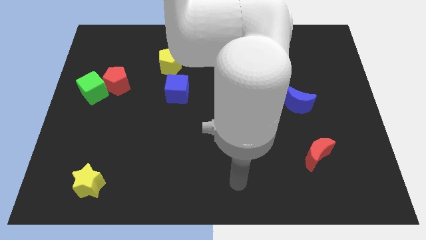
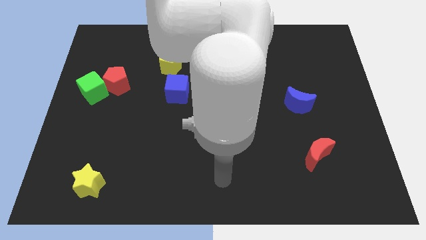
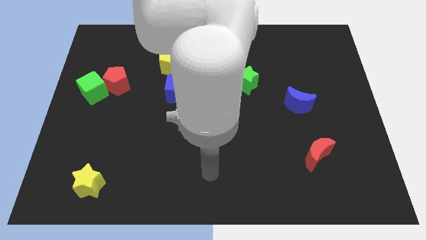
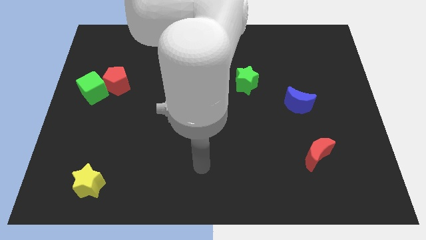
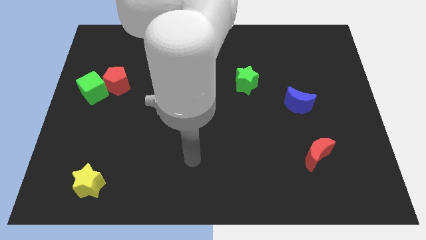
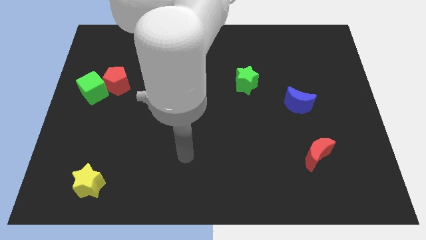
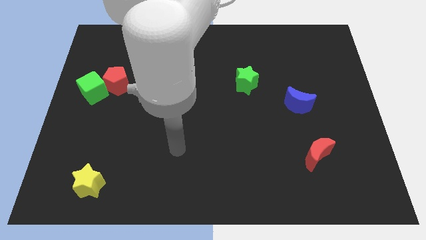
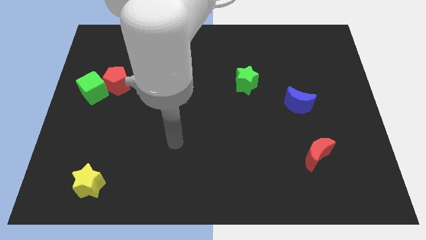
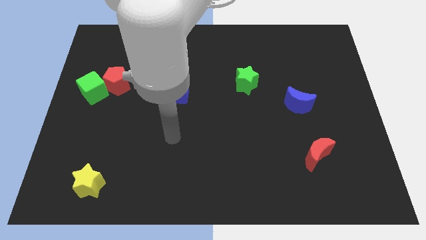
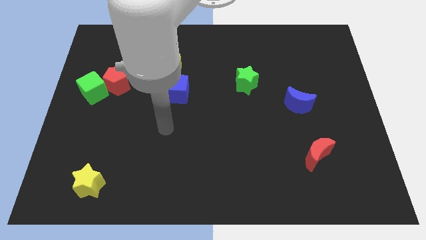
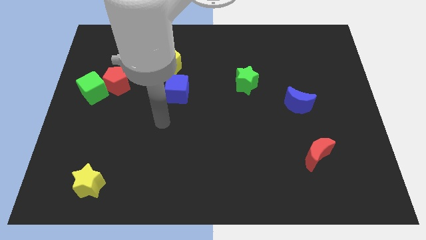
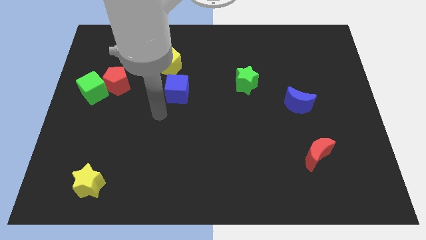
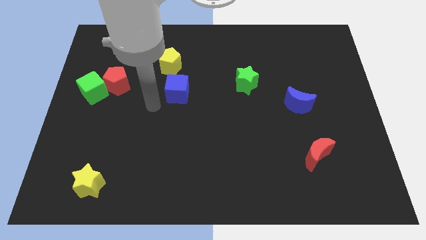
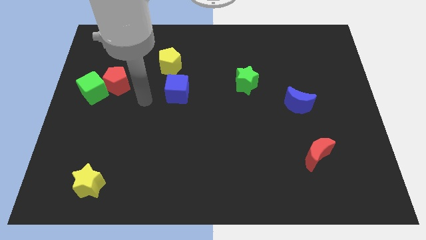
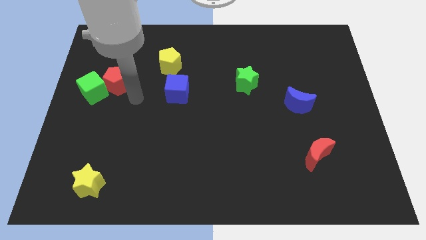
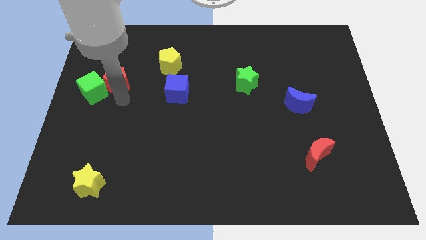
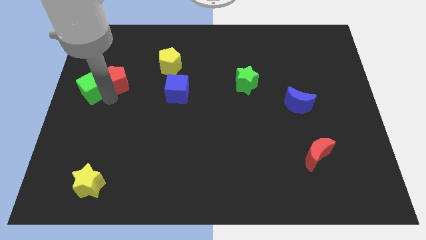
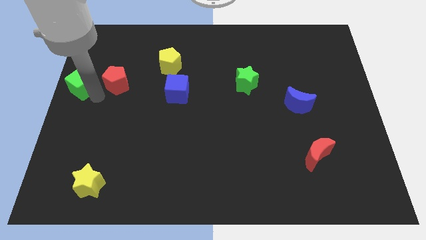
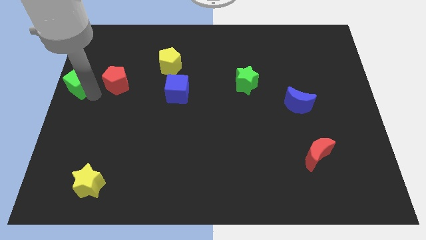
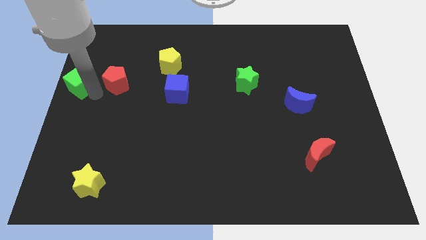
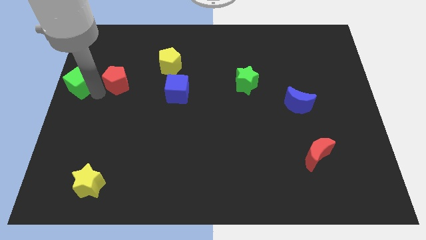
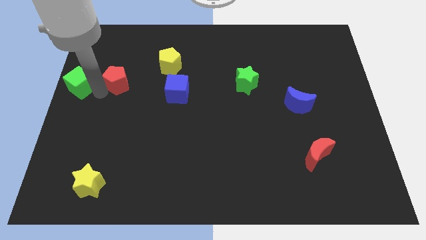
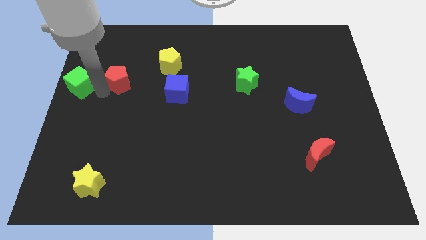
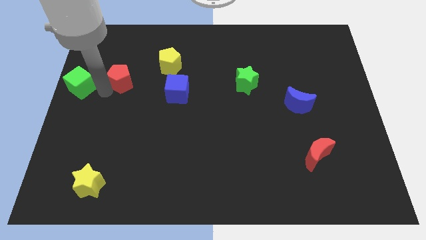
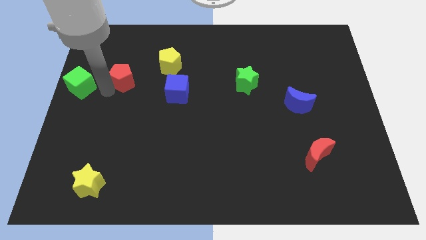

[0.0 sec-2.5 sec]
pull the red pentagon apart from the green cube

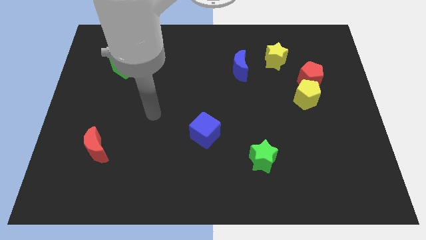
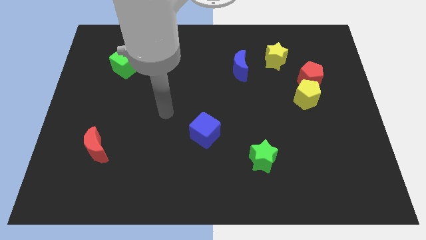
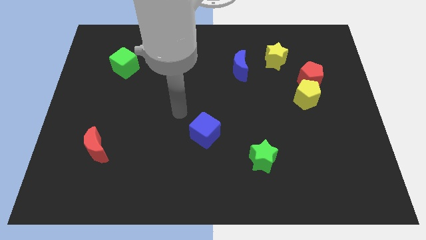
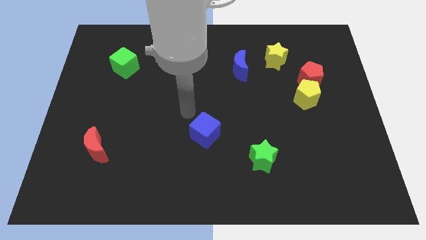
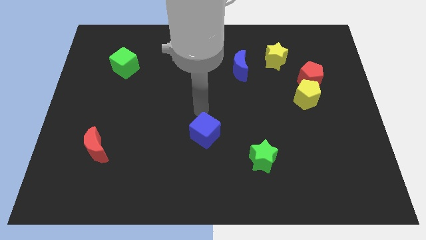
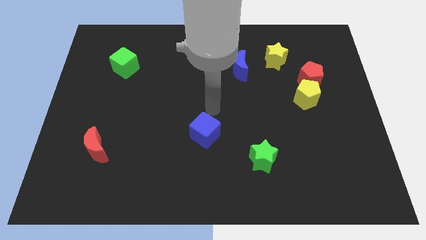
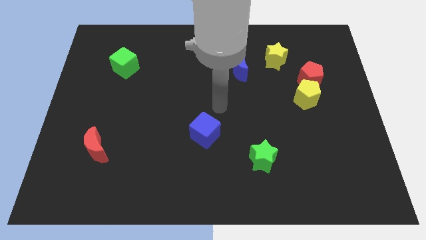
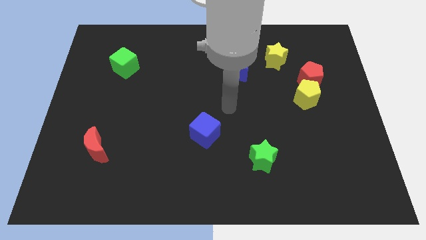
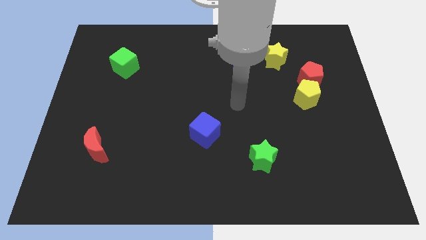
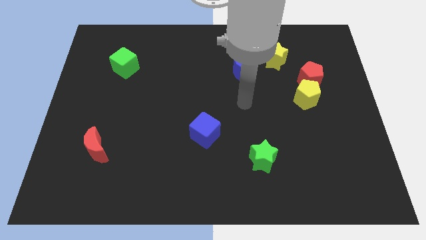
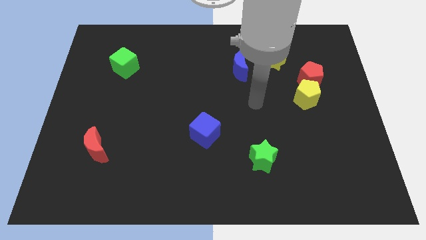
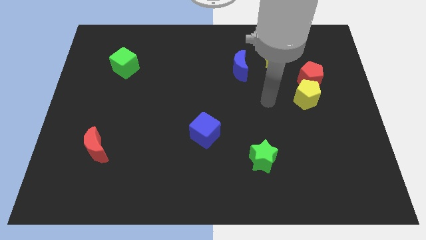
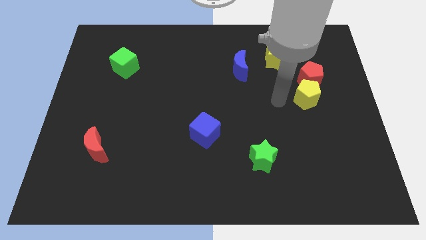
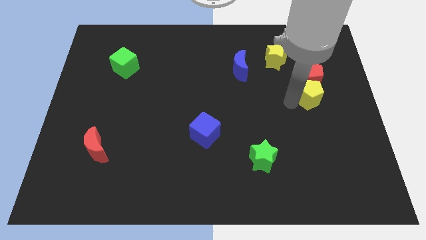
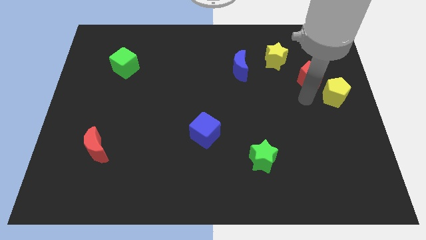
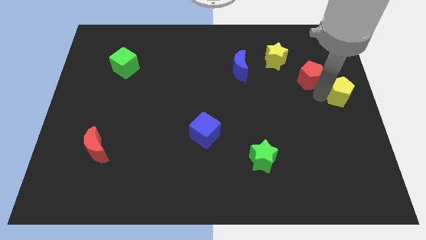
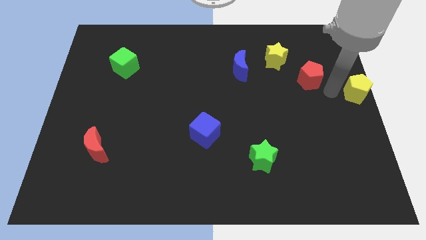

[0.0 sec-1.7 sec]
move the red pentagon away from the yellow pentagon

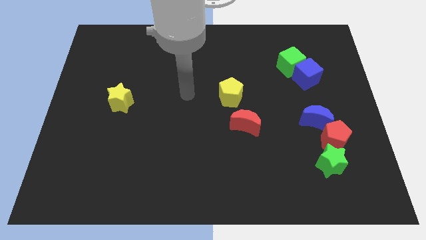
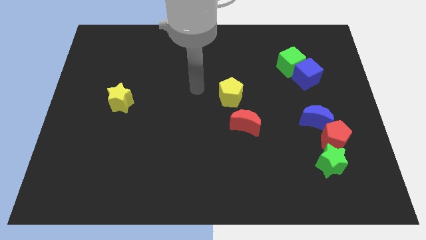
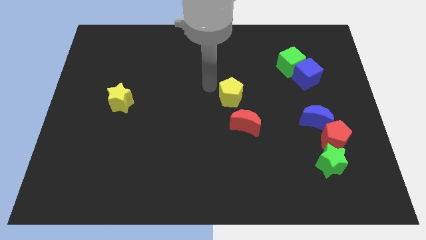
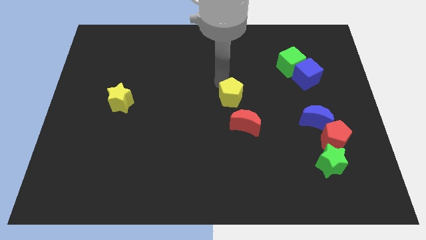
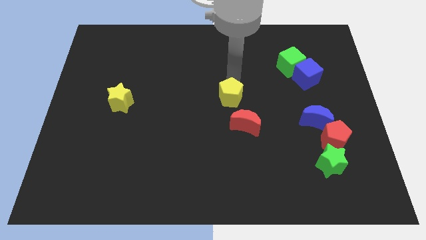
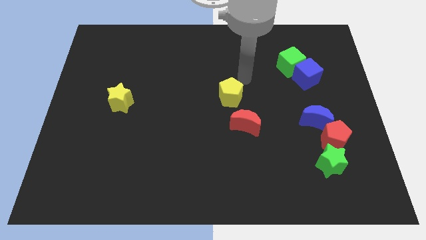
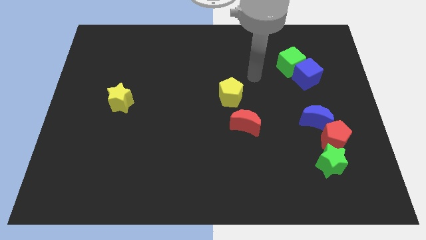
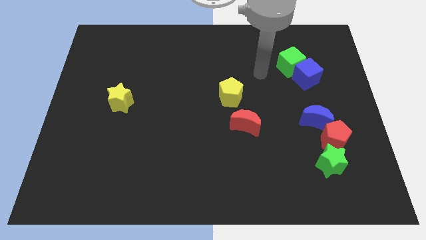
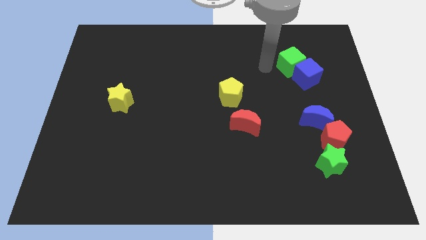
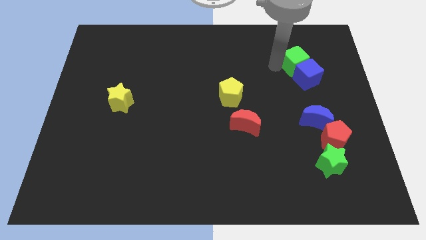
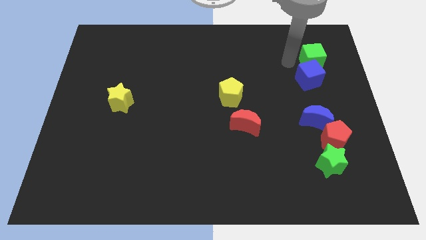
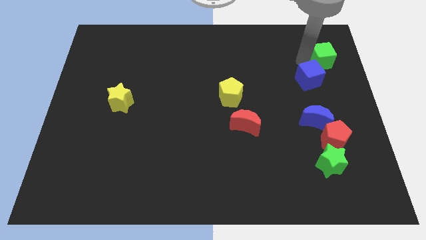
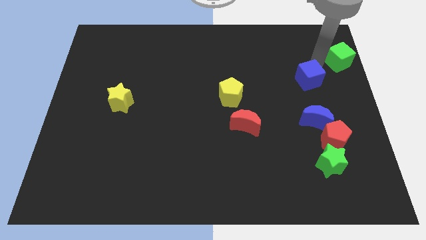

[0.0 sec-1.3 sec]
pull the blue cube apart from the green cube

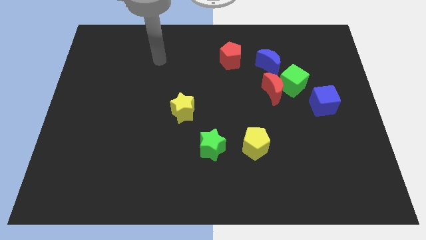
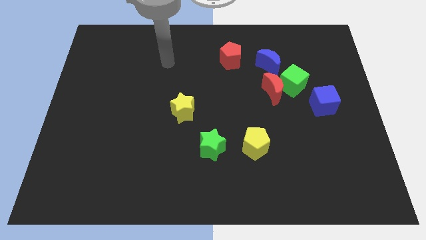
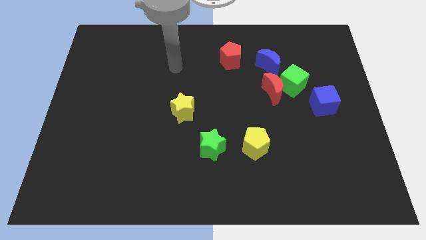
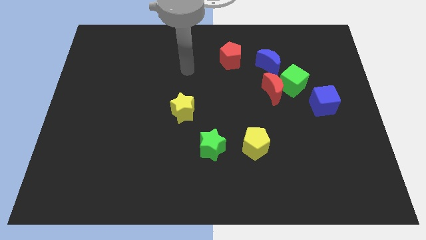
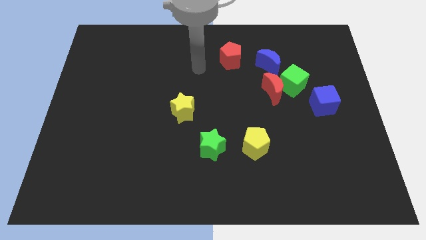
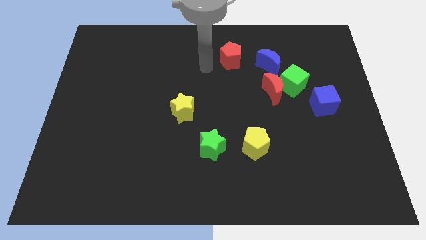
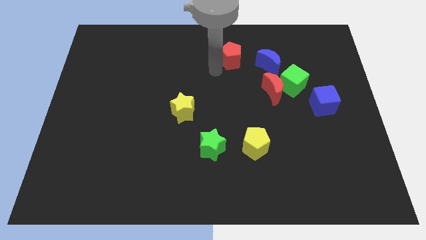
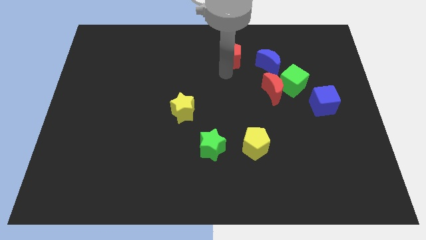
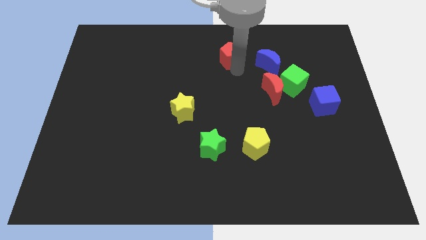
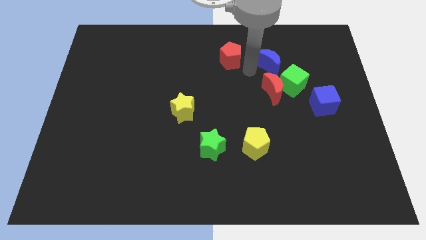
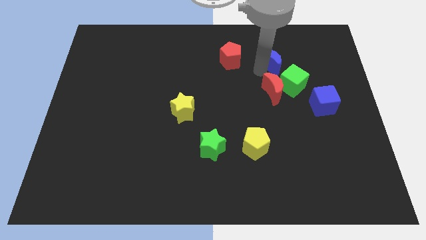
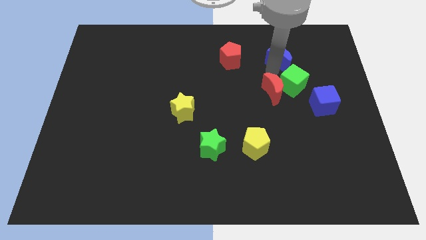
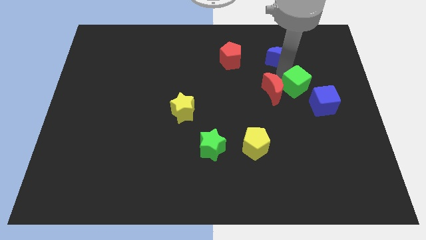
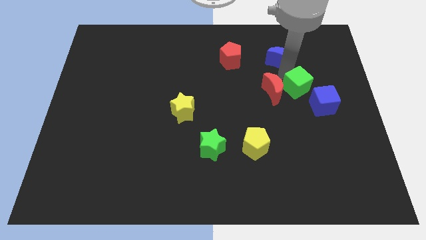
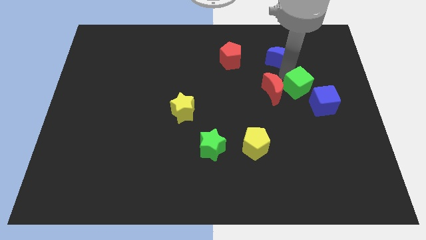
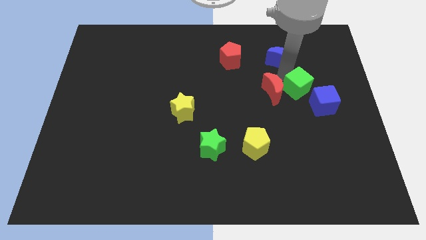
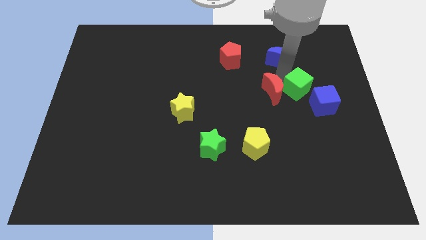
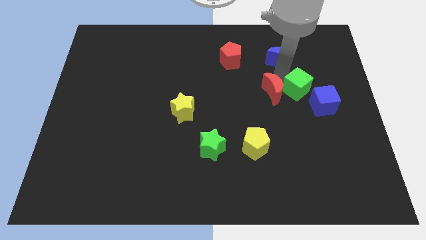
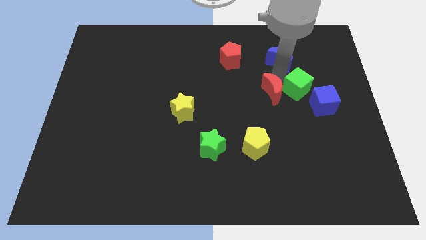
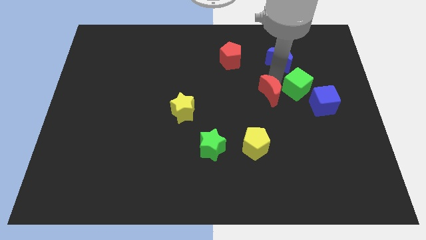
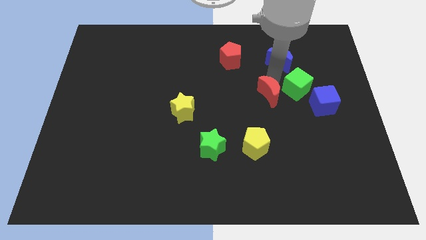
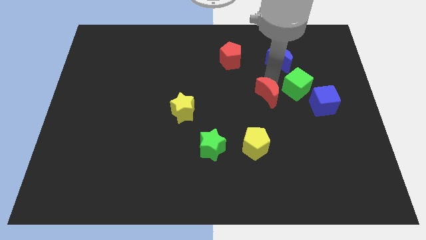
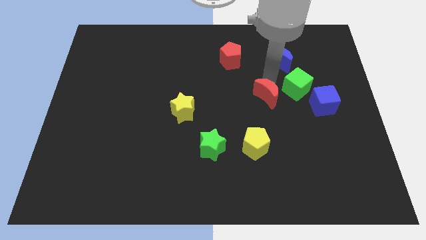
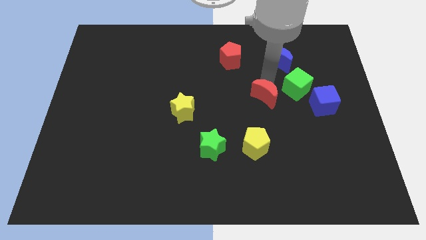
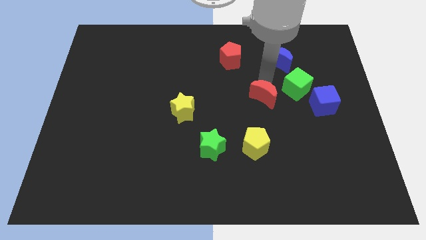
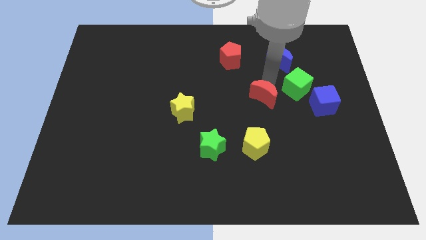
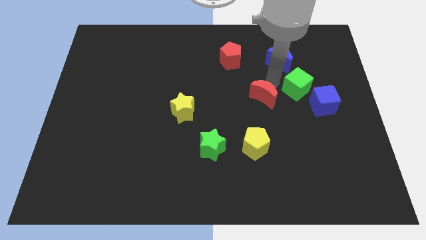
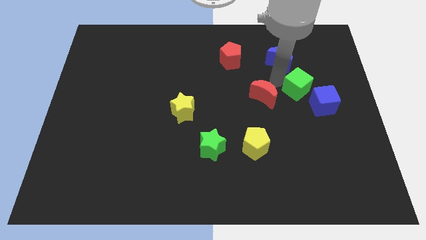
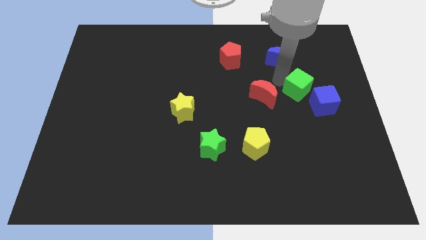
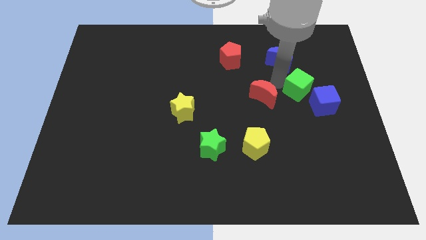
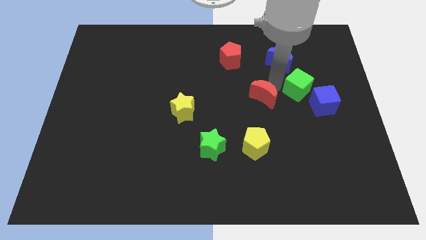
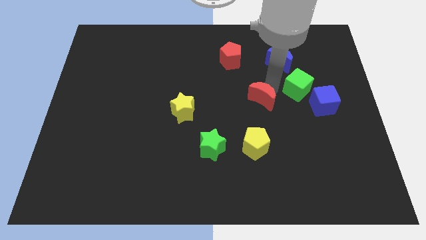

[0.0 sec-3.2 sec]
separate the red moon from the green cube and blue moon

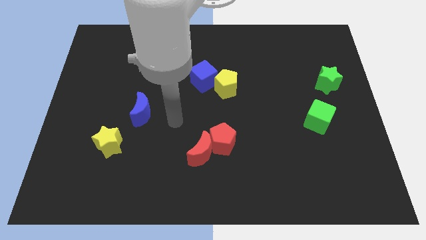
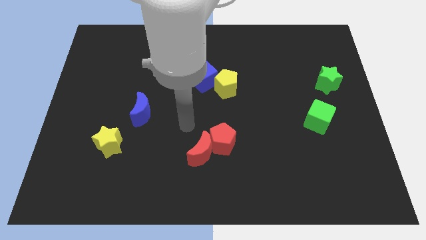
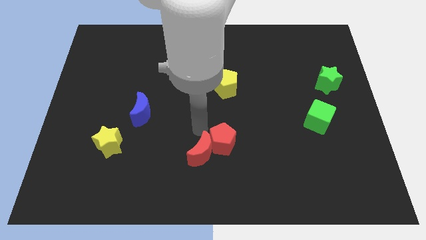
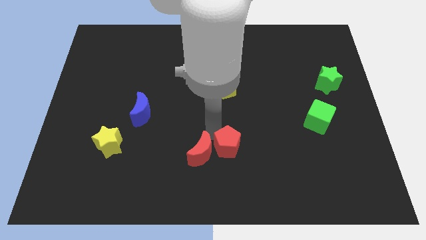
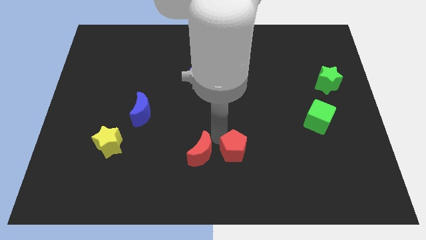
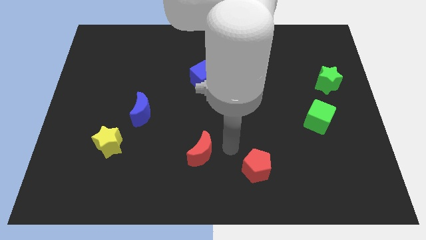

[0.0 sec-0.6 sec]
move the red moon away from the red pentagon
